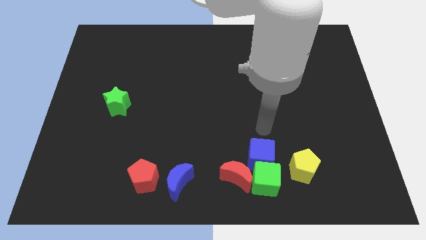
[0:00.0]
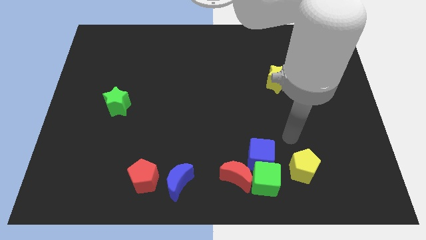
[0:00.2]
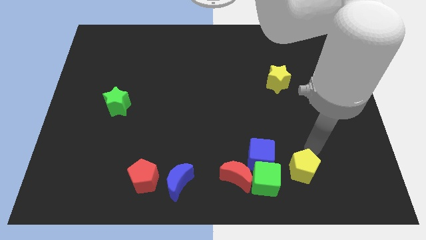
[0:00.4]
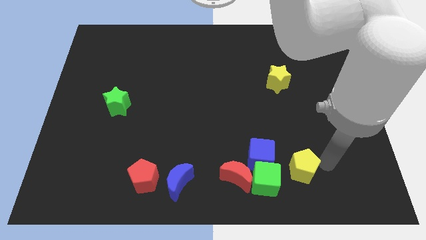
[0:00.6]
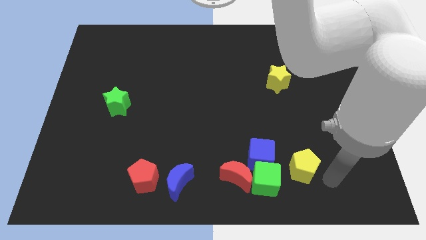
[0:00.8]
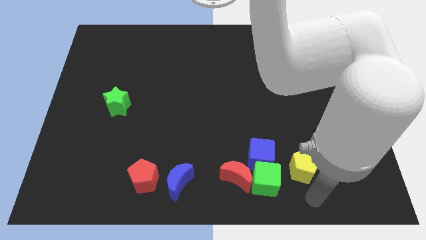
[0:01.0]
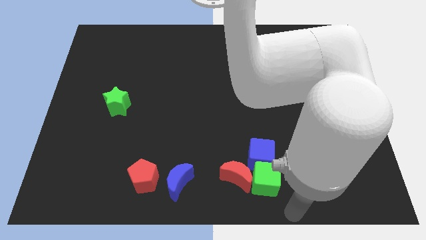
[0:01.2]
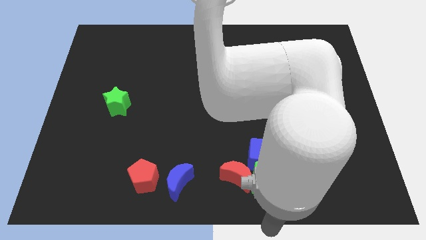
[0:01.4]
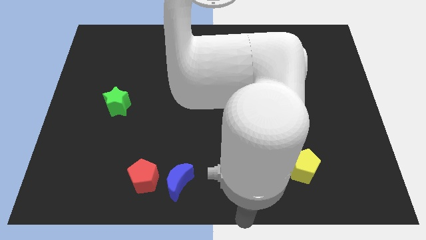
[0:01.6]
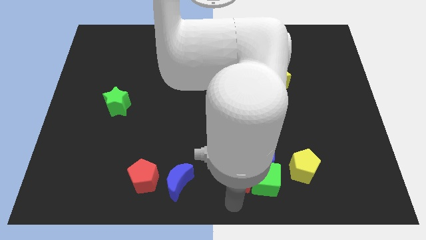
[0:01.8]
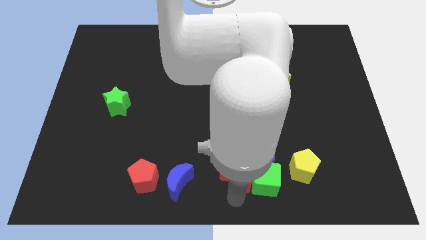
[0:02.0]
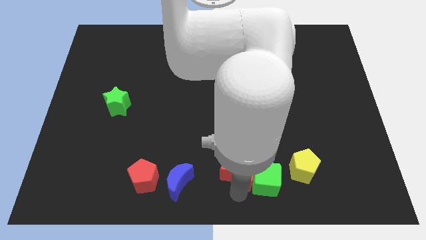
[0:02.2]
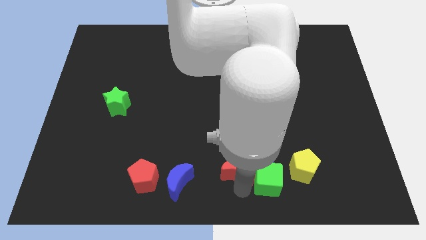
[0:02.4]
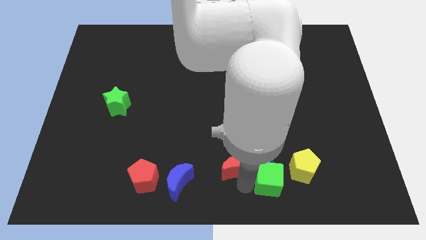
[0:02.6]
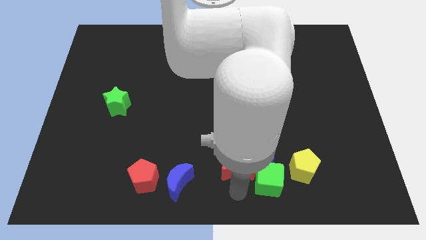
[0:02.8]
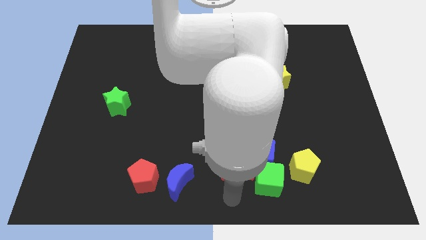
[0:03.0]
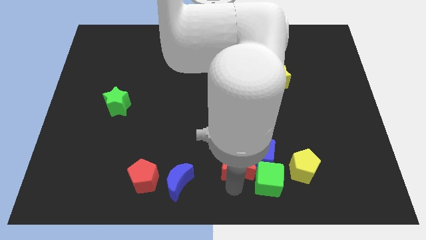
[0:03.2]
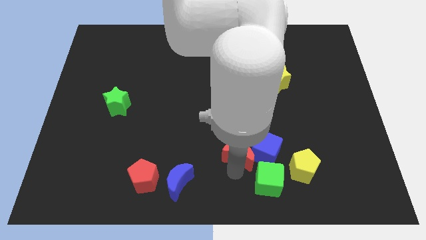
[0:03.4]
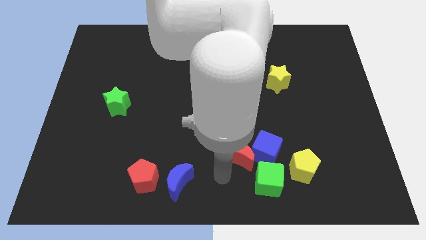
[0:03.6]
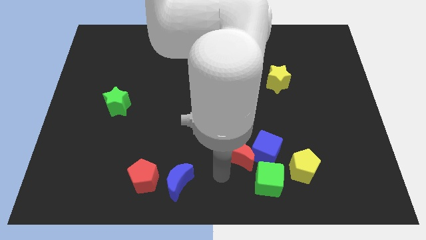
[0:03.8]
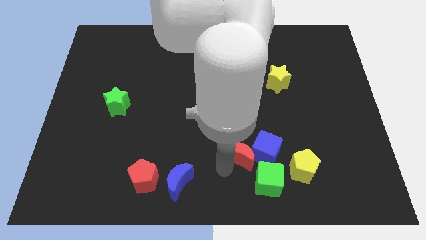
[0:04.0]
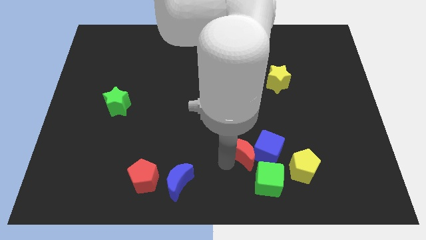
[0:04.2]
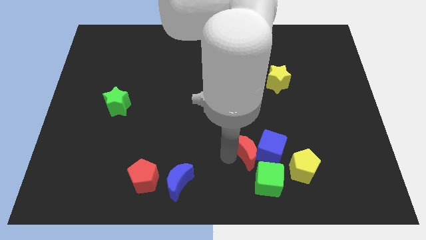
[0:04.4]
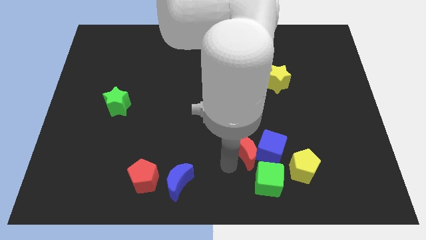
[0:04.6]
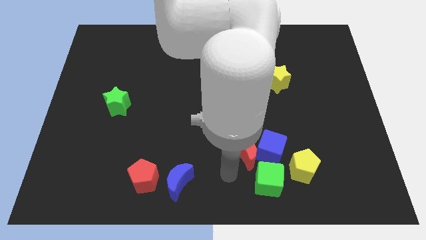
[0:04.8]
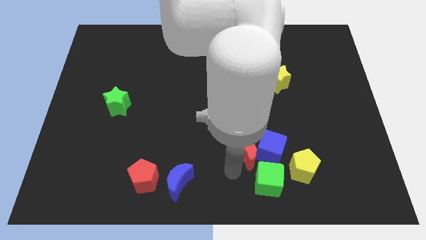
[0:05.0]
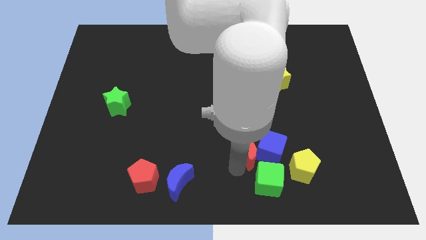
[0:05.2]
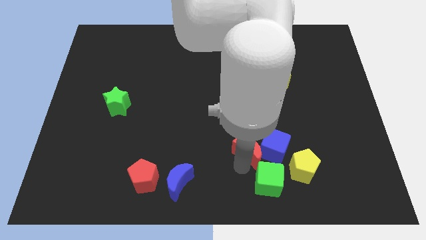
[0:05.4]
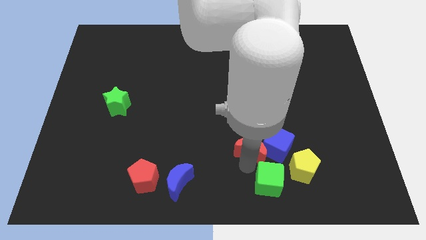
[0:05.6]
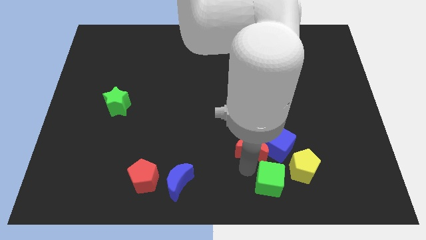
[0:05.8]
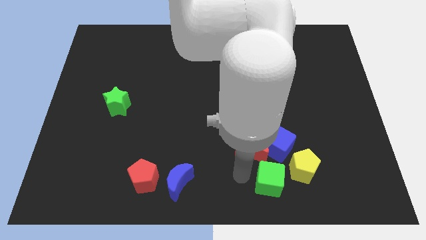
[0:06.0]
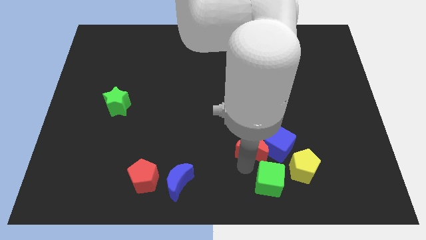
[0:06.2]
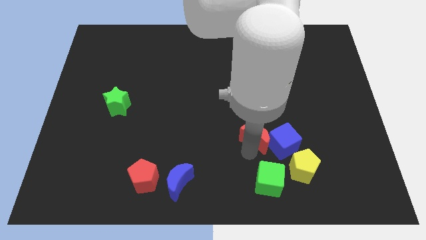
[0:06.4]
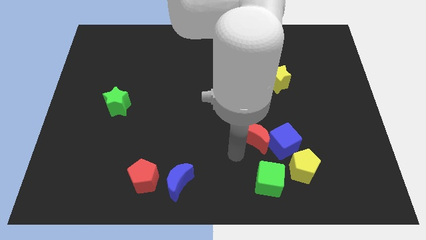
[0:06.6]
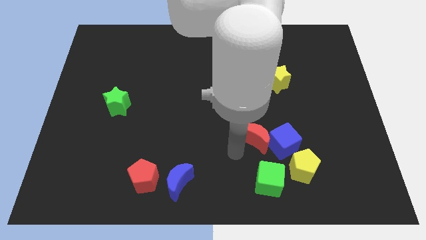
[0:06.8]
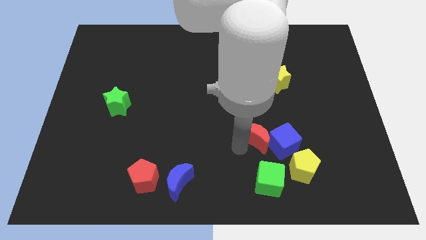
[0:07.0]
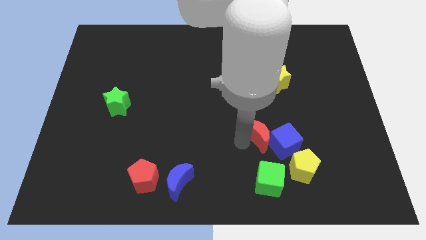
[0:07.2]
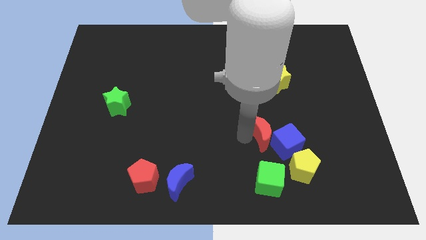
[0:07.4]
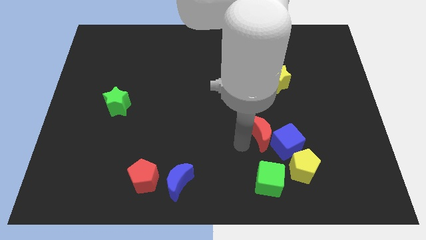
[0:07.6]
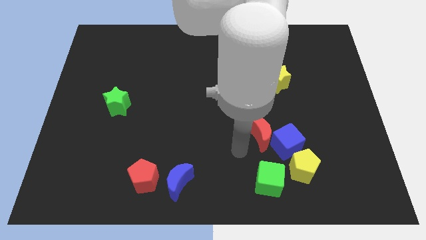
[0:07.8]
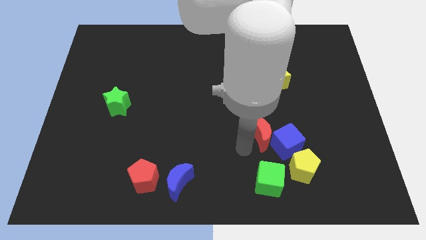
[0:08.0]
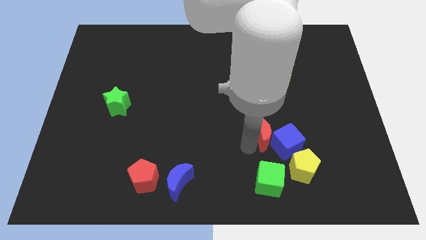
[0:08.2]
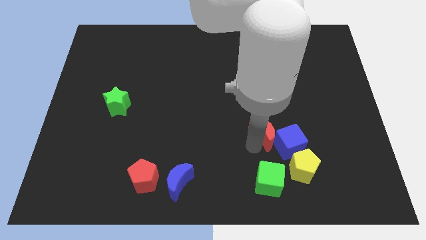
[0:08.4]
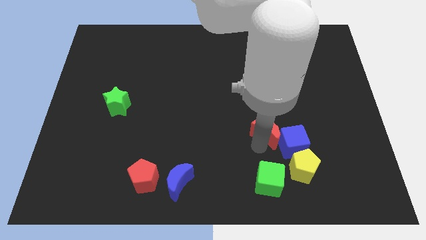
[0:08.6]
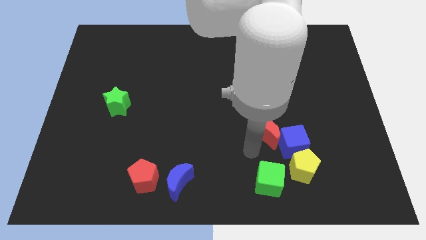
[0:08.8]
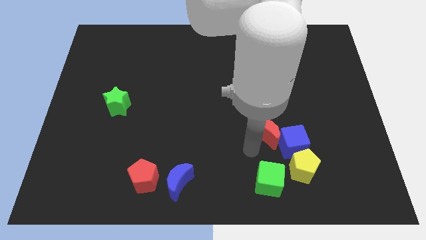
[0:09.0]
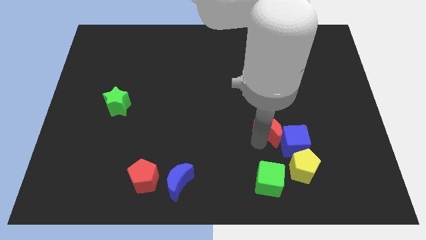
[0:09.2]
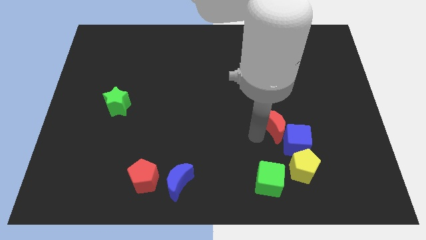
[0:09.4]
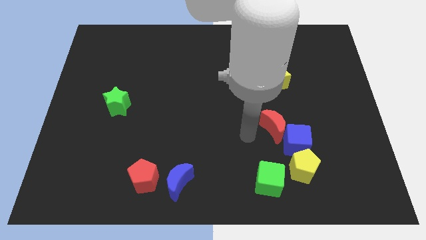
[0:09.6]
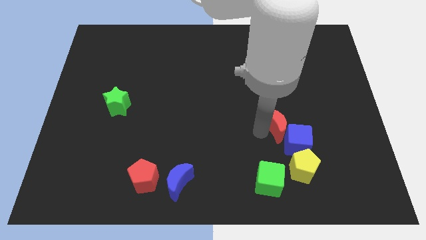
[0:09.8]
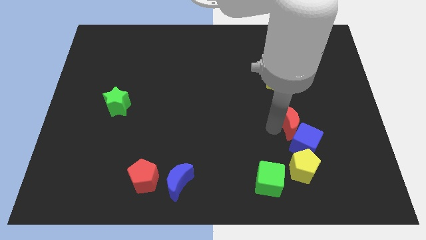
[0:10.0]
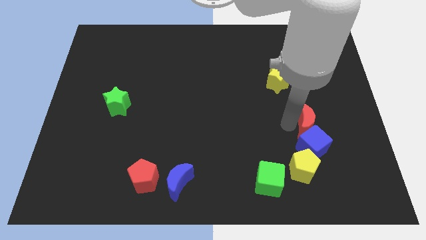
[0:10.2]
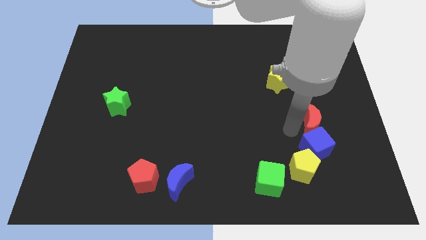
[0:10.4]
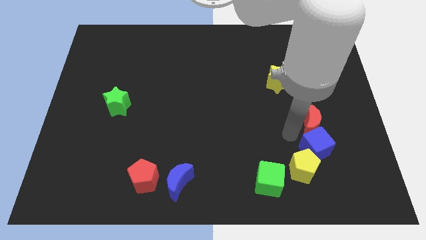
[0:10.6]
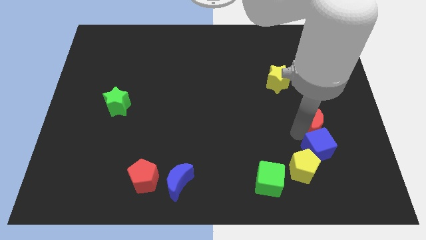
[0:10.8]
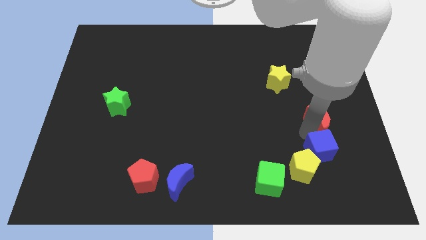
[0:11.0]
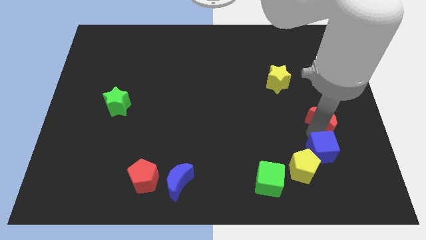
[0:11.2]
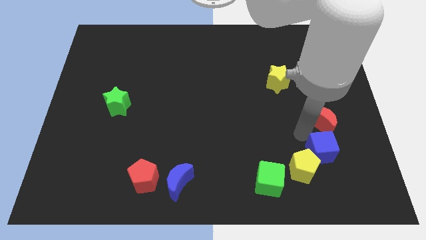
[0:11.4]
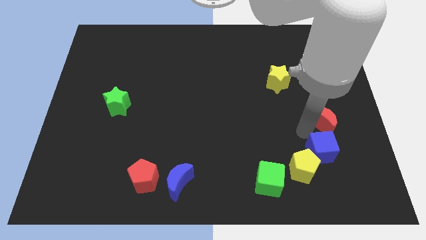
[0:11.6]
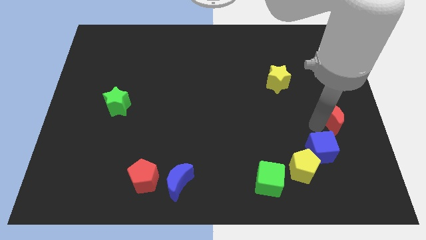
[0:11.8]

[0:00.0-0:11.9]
move the red moon to the right side of the board
